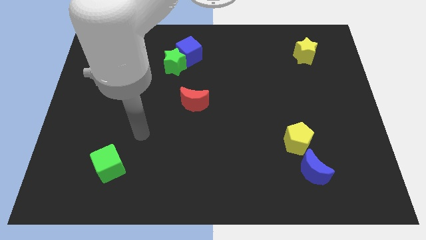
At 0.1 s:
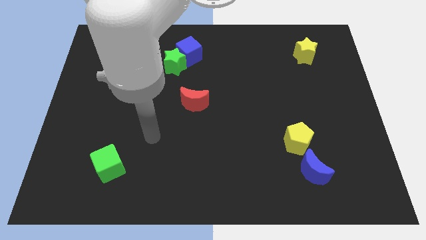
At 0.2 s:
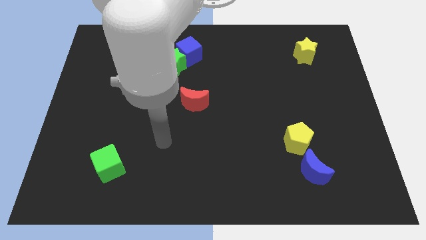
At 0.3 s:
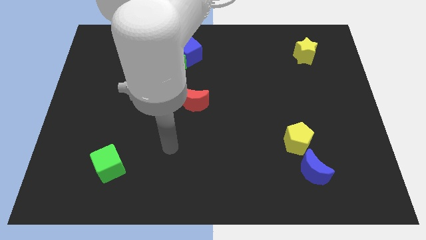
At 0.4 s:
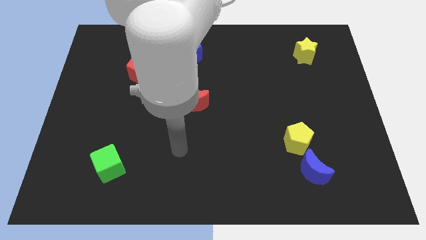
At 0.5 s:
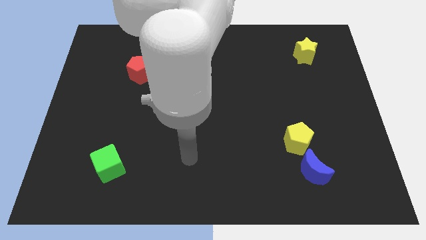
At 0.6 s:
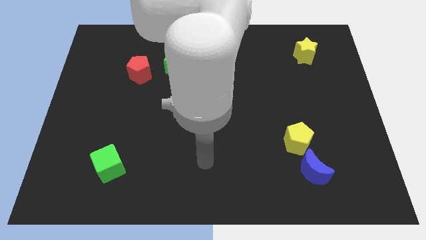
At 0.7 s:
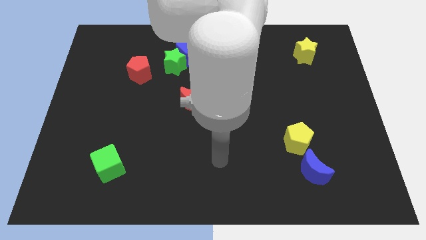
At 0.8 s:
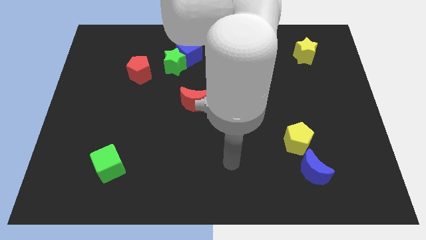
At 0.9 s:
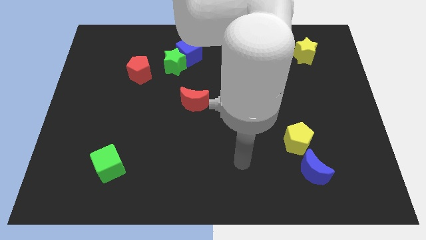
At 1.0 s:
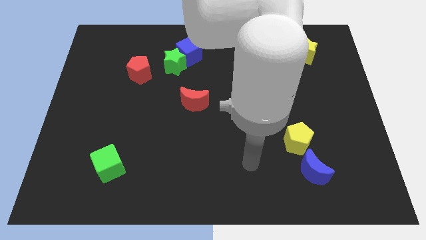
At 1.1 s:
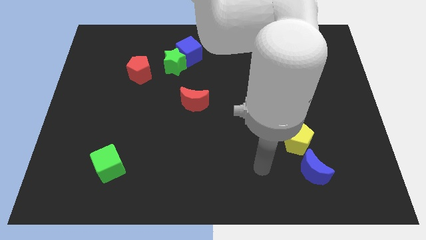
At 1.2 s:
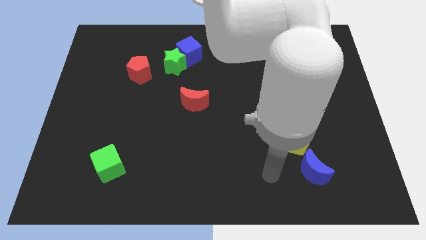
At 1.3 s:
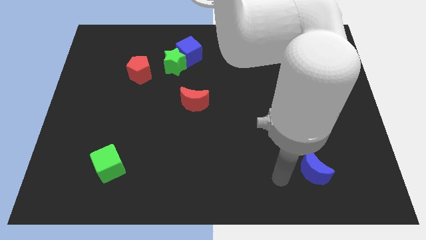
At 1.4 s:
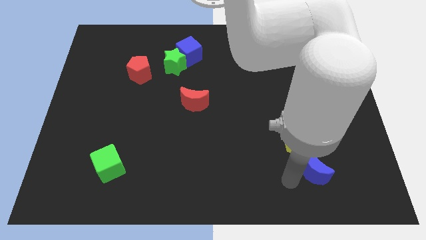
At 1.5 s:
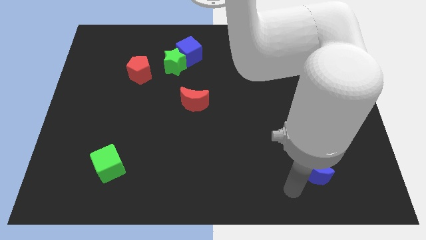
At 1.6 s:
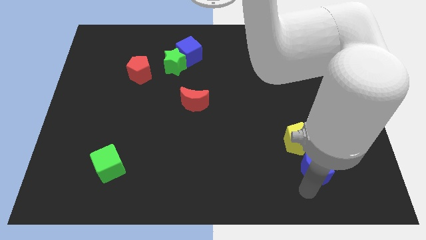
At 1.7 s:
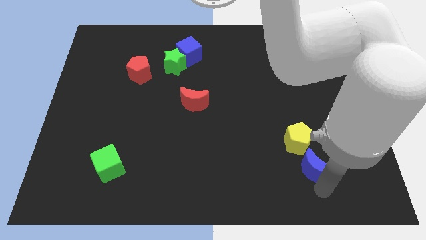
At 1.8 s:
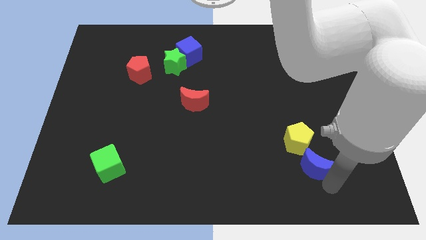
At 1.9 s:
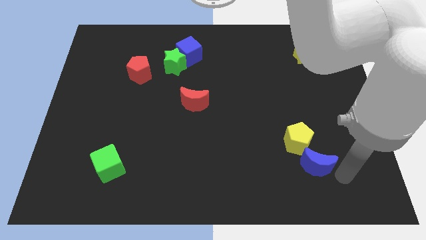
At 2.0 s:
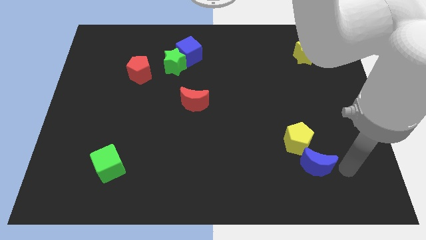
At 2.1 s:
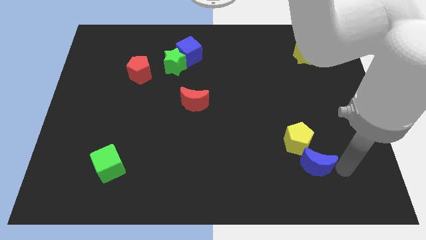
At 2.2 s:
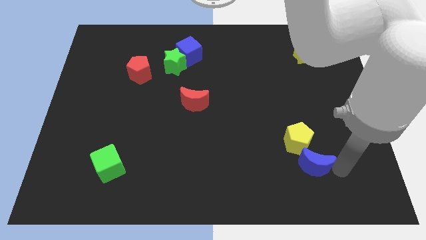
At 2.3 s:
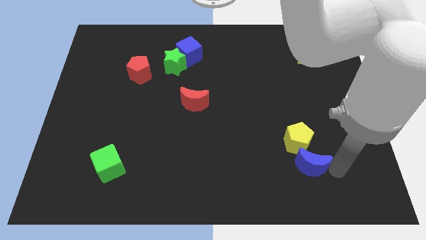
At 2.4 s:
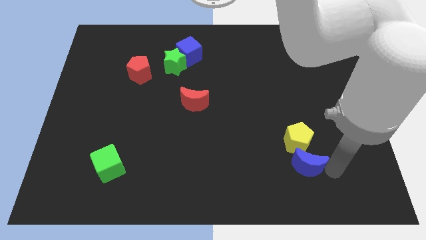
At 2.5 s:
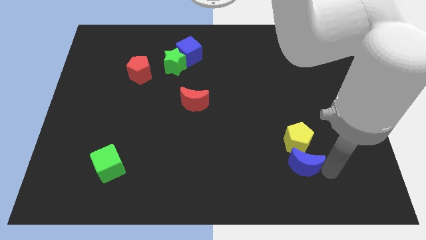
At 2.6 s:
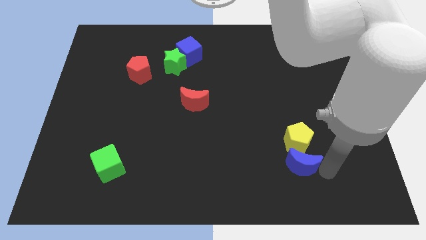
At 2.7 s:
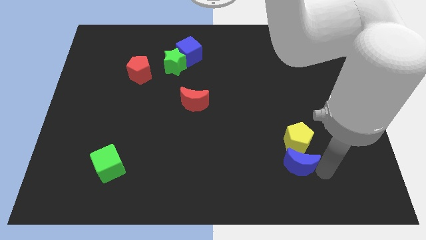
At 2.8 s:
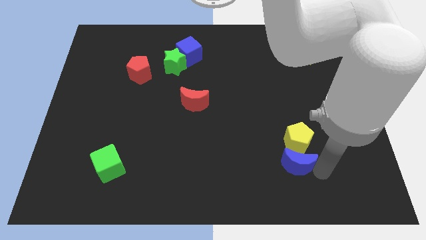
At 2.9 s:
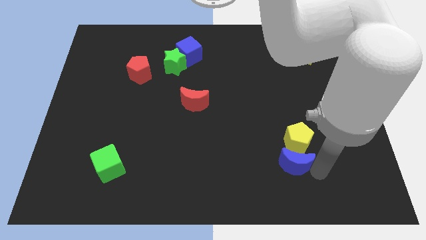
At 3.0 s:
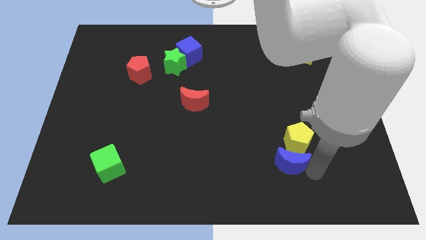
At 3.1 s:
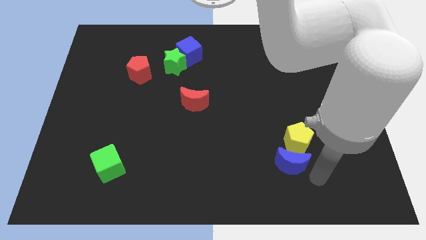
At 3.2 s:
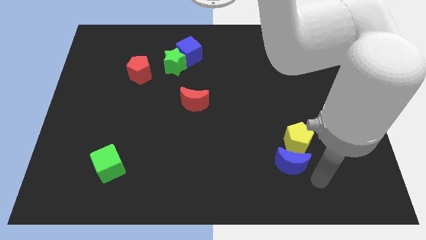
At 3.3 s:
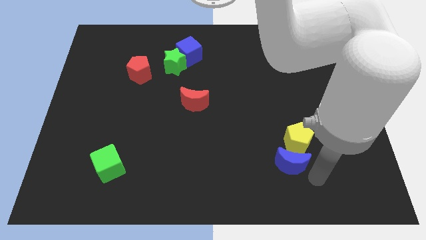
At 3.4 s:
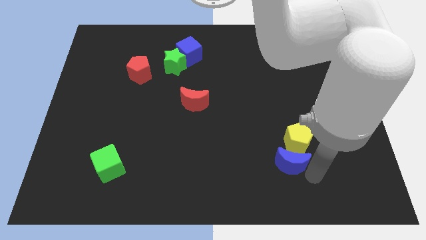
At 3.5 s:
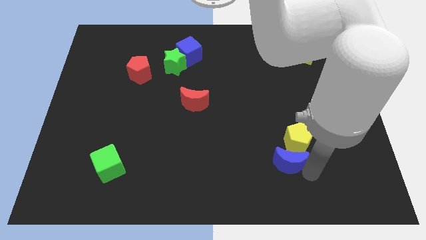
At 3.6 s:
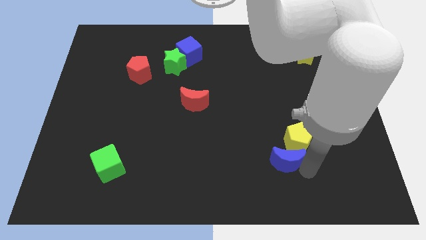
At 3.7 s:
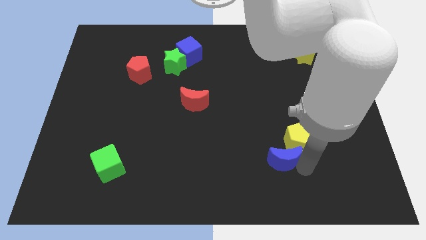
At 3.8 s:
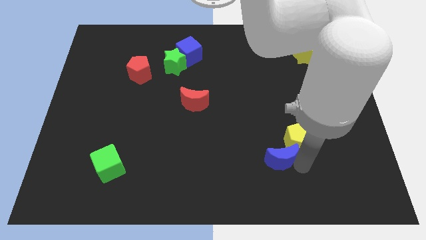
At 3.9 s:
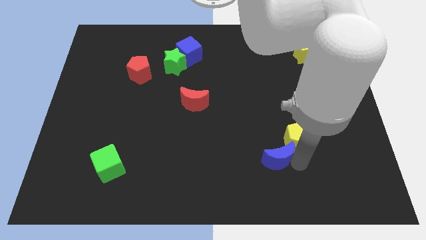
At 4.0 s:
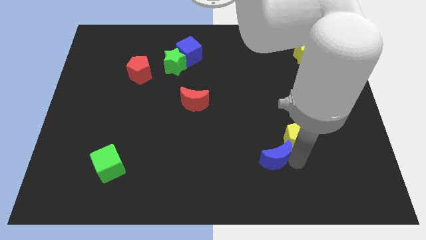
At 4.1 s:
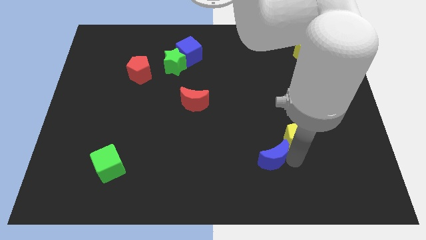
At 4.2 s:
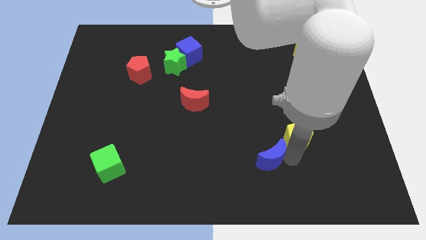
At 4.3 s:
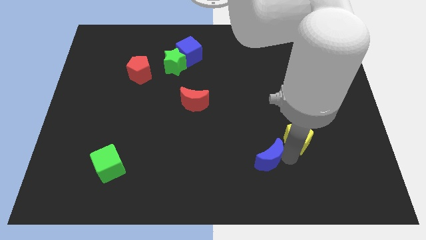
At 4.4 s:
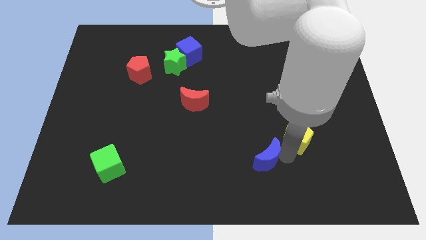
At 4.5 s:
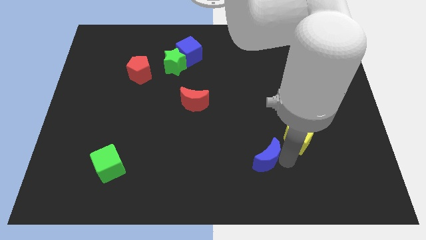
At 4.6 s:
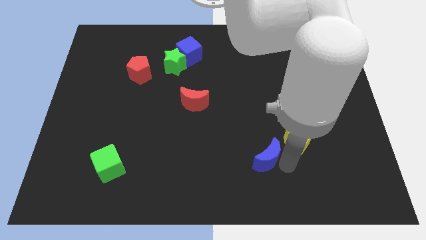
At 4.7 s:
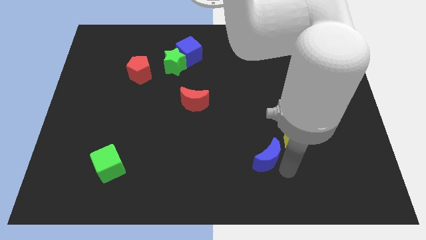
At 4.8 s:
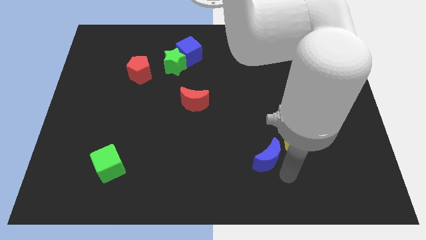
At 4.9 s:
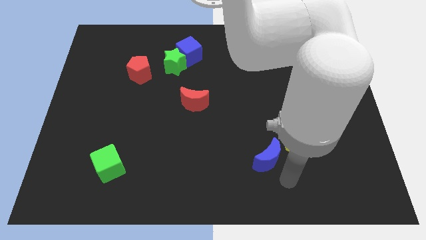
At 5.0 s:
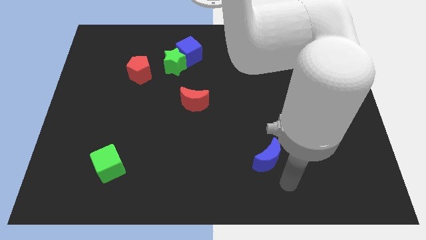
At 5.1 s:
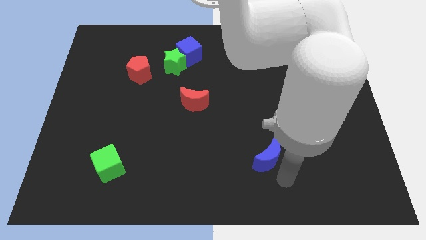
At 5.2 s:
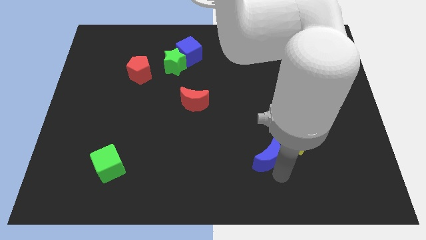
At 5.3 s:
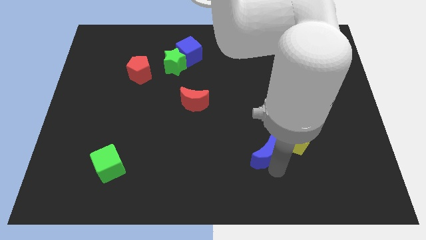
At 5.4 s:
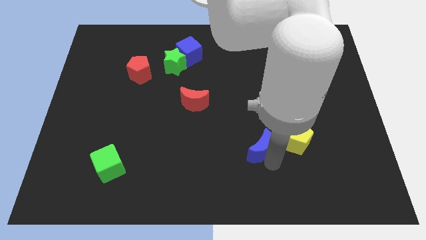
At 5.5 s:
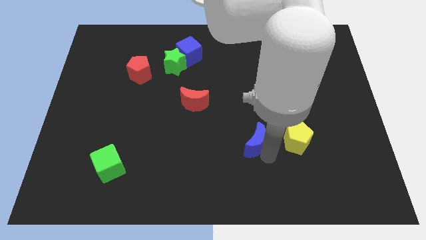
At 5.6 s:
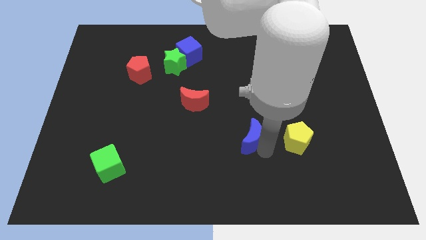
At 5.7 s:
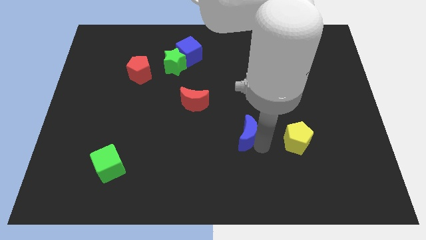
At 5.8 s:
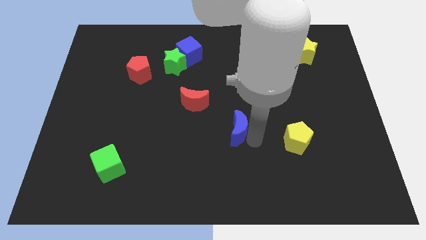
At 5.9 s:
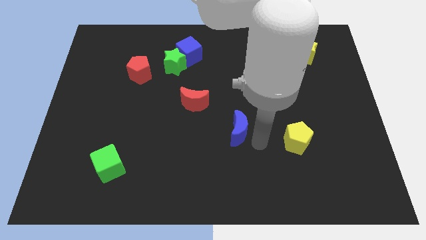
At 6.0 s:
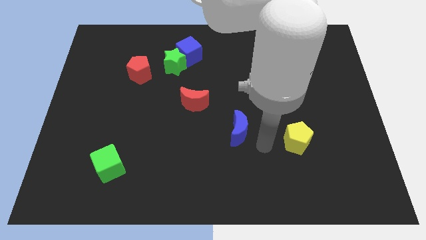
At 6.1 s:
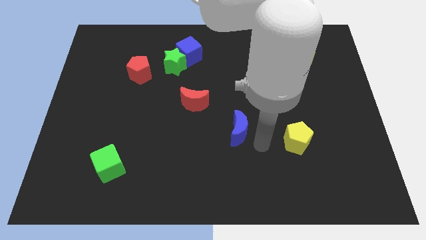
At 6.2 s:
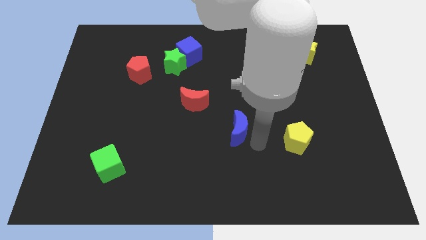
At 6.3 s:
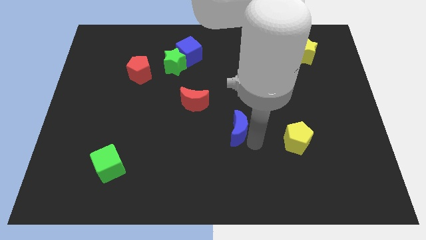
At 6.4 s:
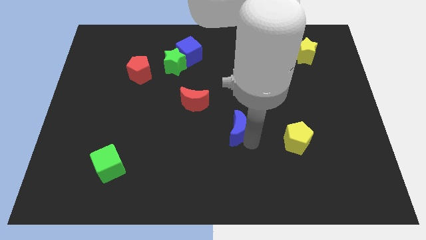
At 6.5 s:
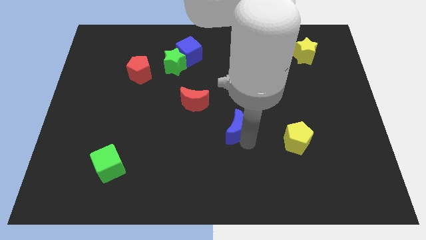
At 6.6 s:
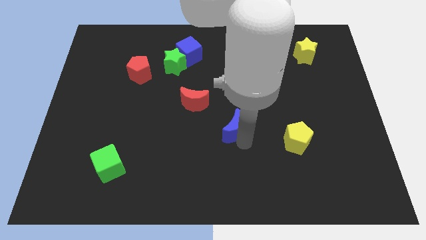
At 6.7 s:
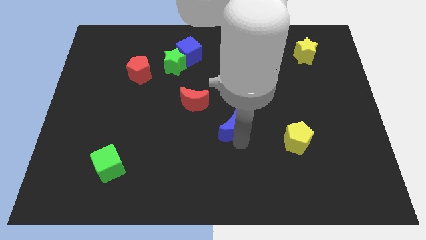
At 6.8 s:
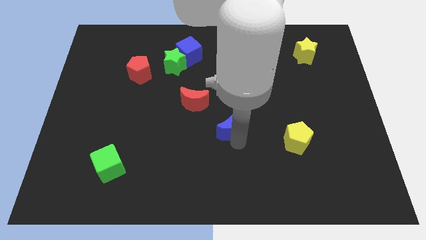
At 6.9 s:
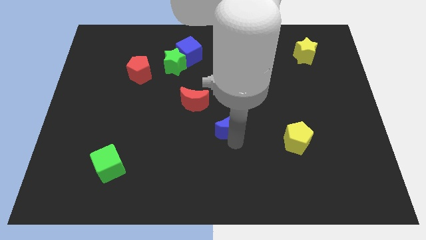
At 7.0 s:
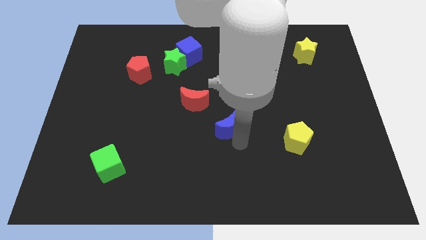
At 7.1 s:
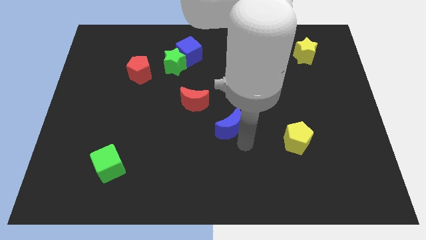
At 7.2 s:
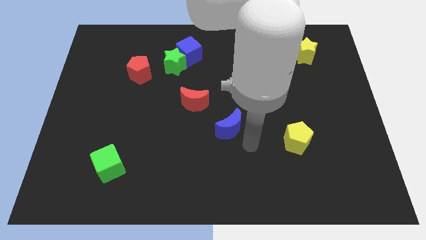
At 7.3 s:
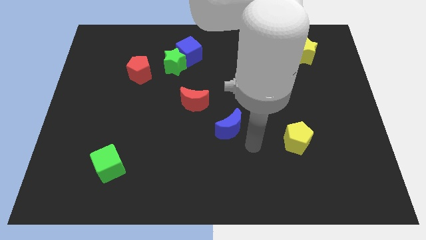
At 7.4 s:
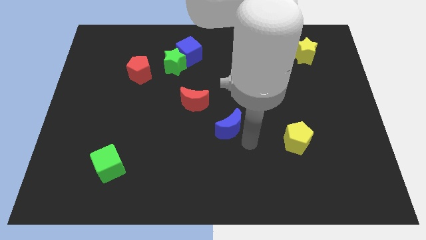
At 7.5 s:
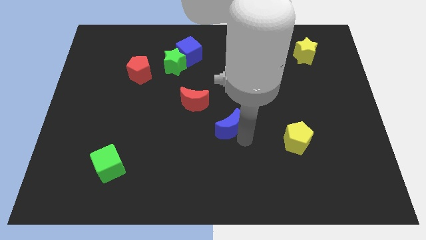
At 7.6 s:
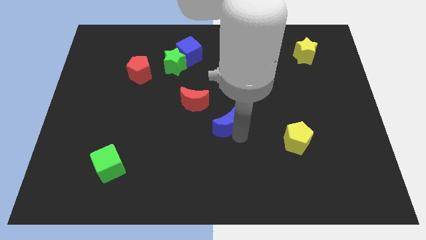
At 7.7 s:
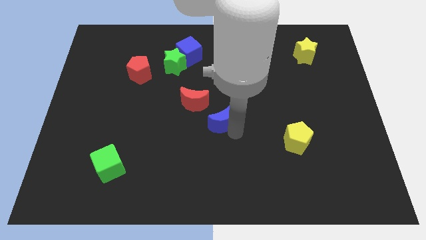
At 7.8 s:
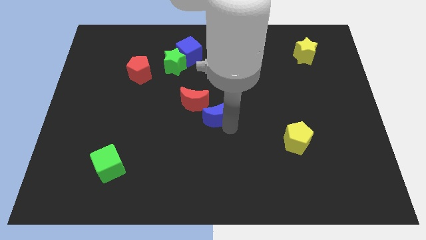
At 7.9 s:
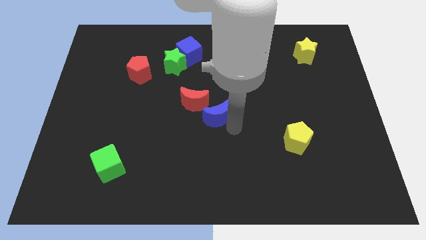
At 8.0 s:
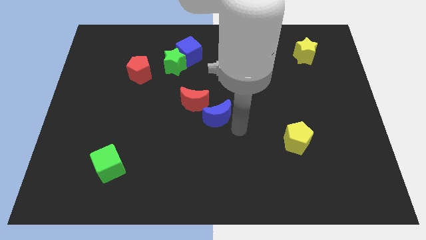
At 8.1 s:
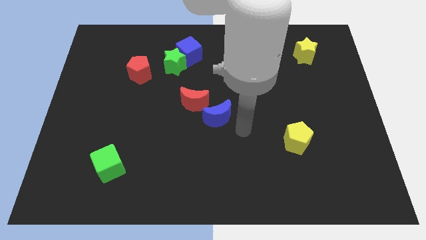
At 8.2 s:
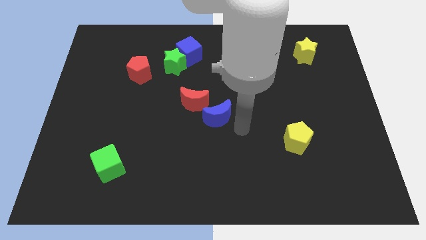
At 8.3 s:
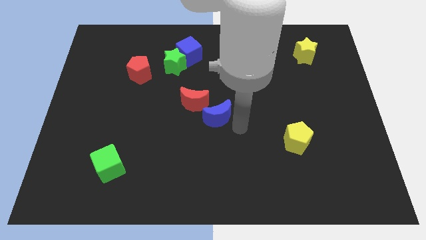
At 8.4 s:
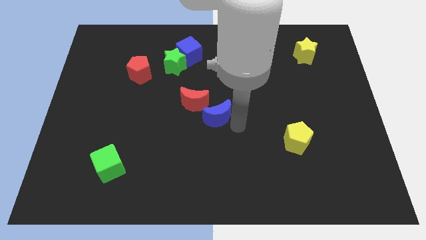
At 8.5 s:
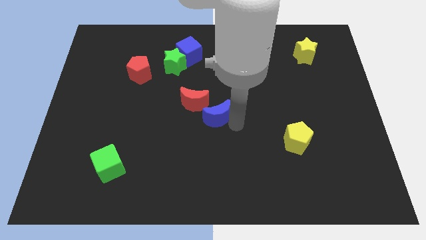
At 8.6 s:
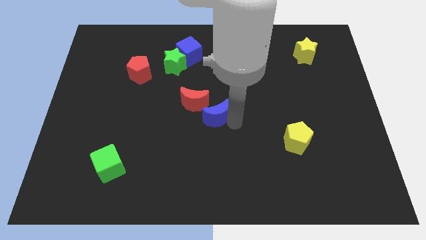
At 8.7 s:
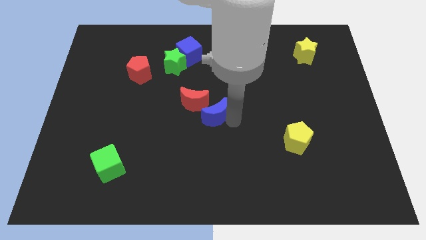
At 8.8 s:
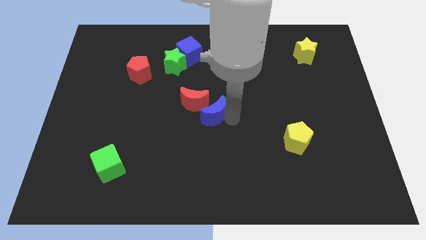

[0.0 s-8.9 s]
push the blue moon close to the red moon
